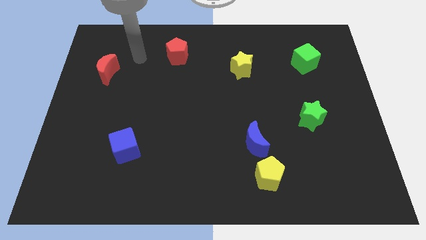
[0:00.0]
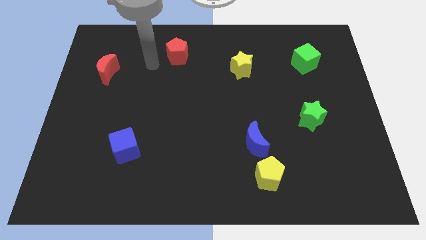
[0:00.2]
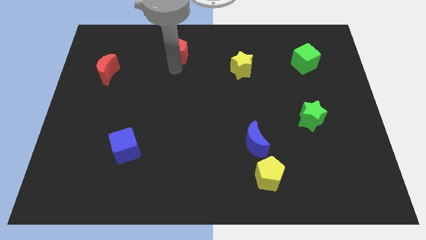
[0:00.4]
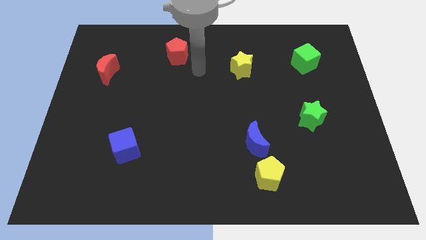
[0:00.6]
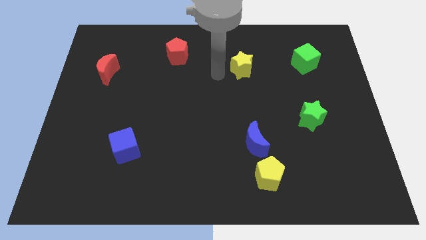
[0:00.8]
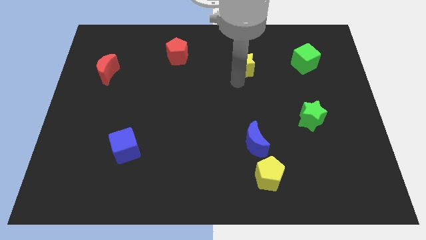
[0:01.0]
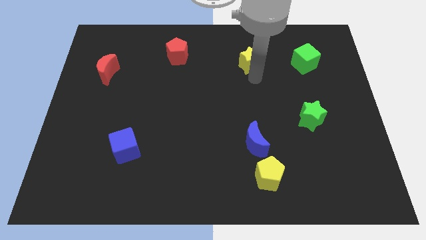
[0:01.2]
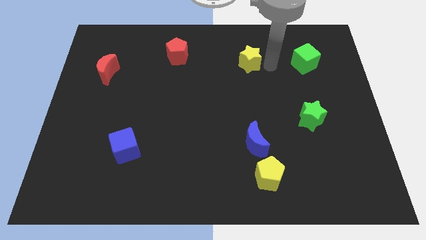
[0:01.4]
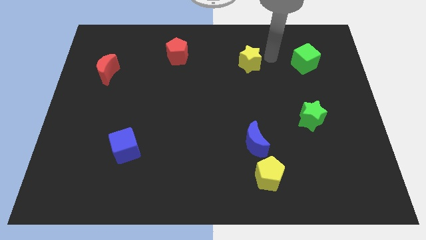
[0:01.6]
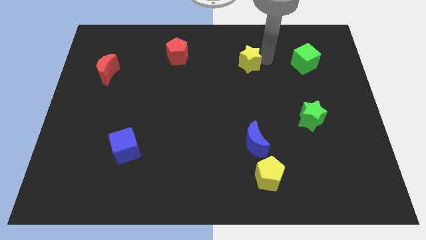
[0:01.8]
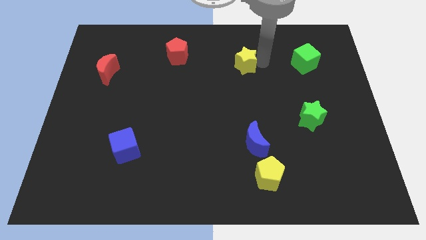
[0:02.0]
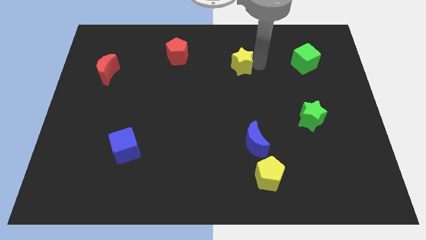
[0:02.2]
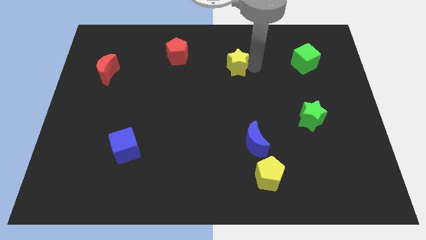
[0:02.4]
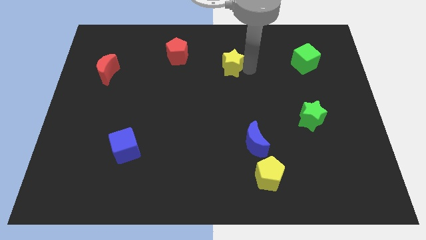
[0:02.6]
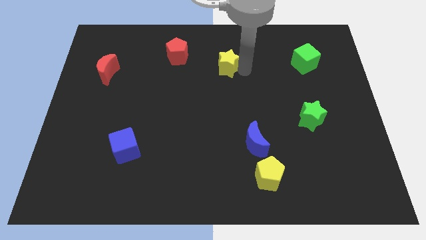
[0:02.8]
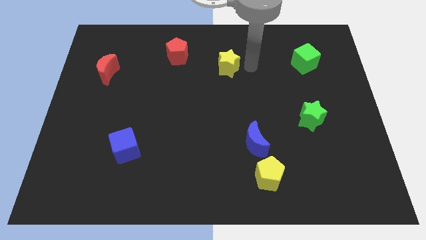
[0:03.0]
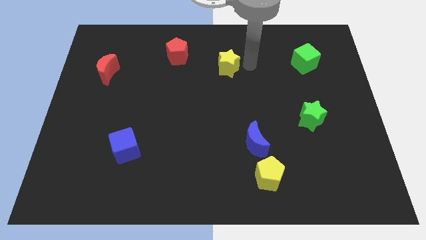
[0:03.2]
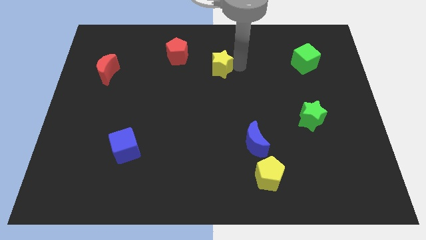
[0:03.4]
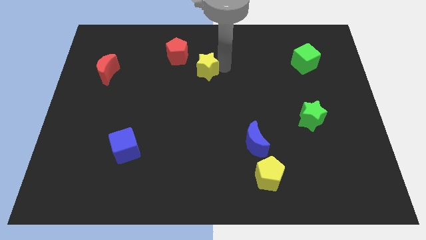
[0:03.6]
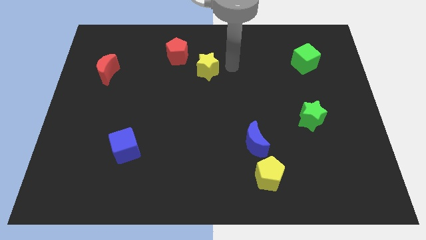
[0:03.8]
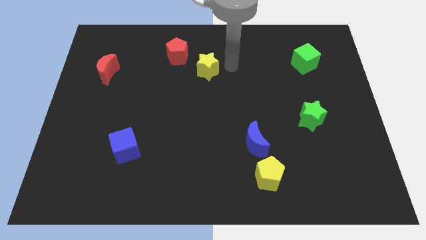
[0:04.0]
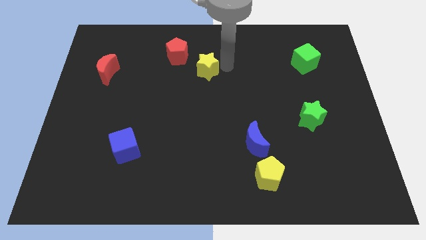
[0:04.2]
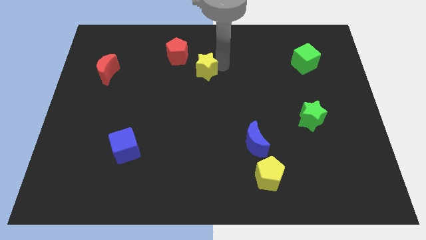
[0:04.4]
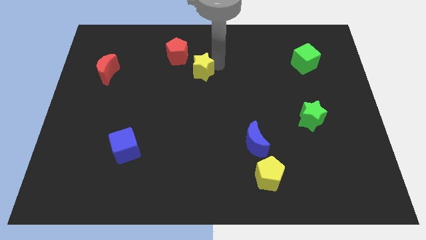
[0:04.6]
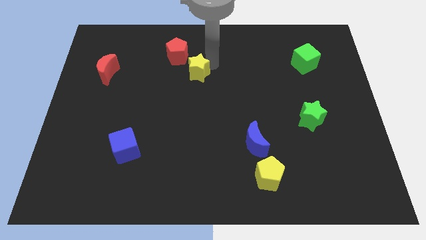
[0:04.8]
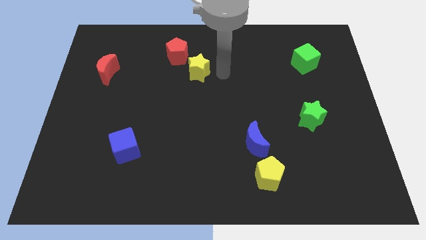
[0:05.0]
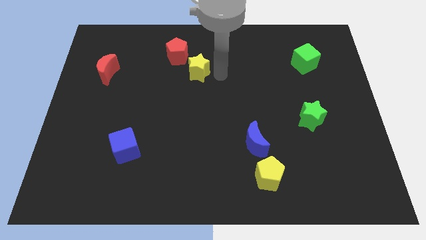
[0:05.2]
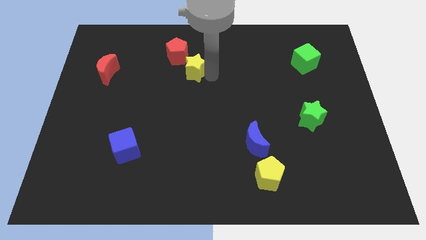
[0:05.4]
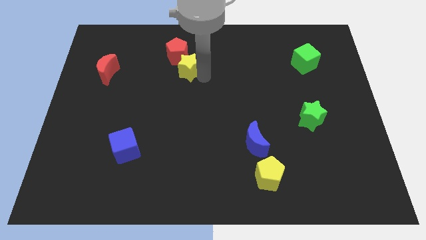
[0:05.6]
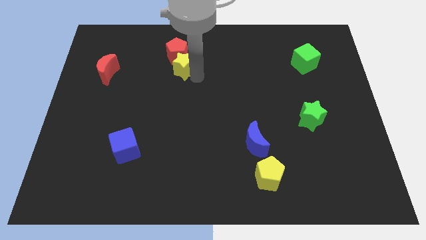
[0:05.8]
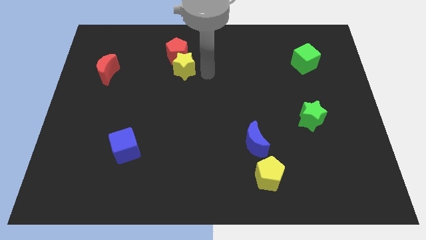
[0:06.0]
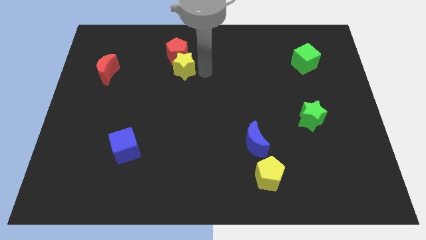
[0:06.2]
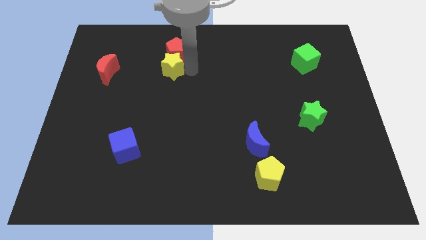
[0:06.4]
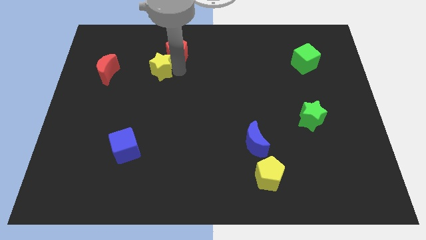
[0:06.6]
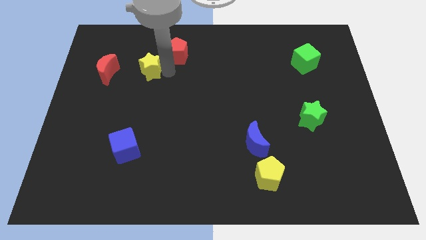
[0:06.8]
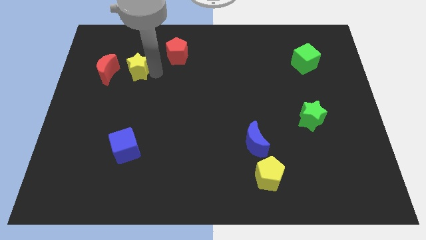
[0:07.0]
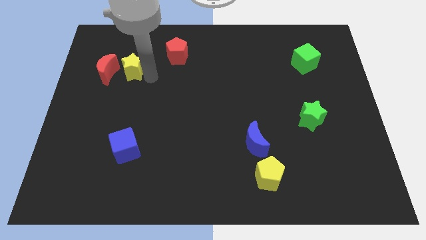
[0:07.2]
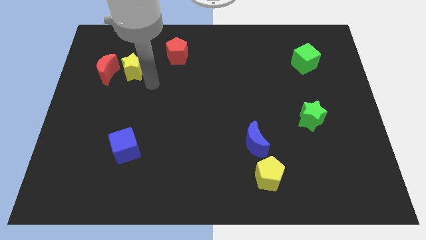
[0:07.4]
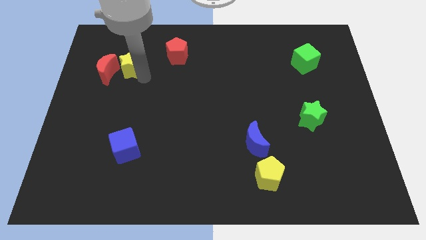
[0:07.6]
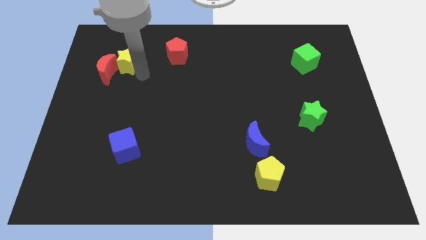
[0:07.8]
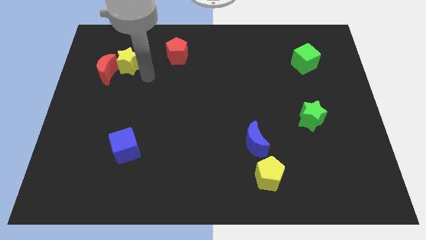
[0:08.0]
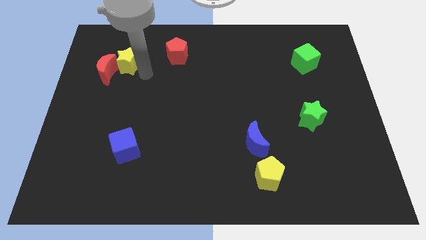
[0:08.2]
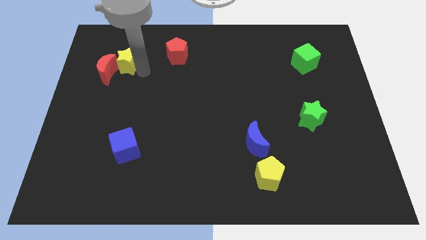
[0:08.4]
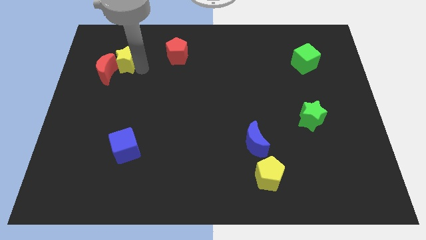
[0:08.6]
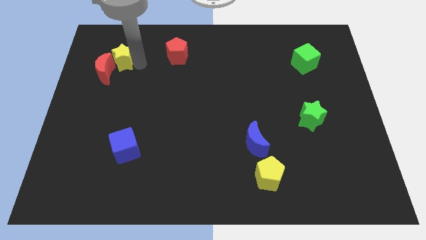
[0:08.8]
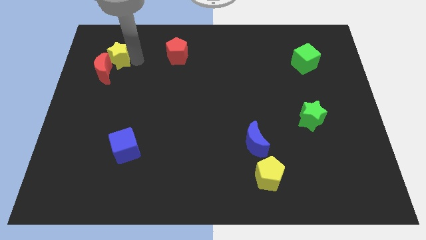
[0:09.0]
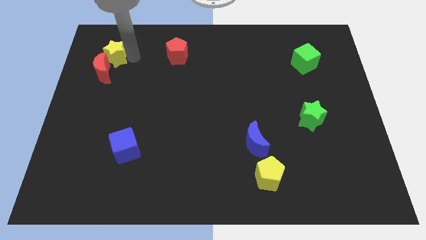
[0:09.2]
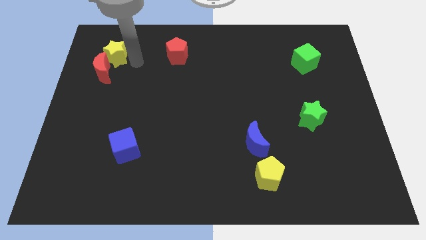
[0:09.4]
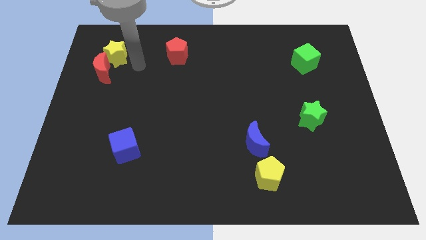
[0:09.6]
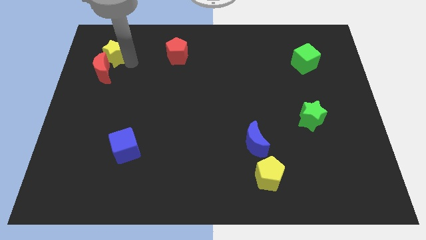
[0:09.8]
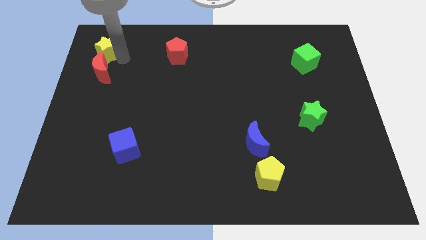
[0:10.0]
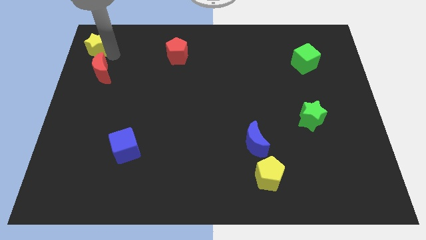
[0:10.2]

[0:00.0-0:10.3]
put the yellow star to the top left corner
